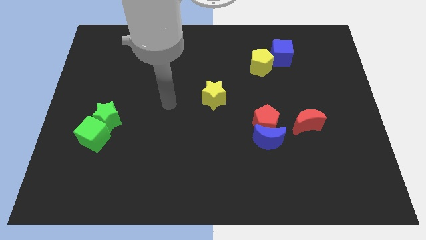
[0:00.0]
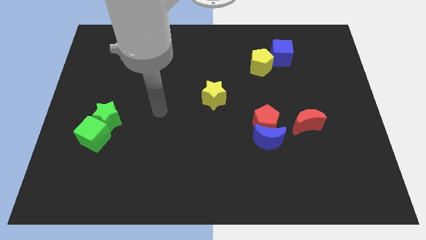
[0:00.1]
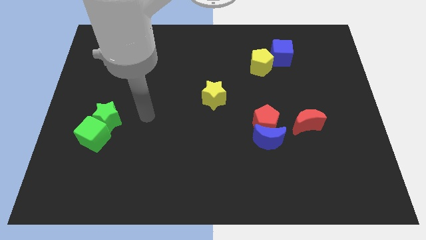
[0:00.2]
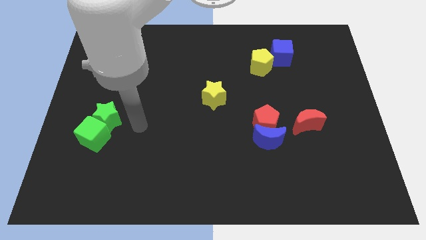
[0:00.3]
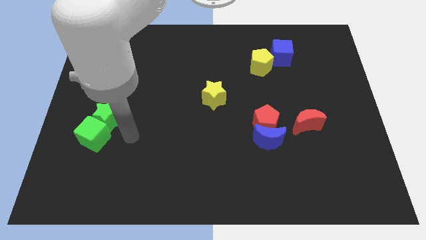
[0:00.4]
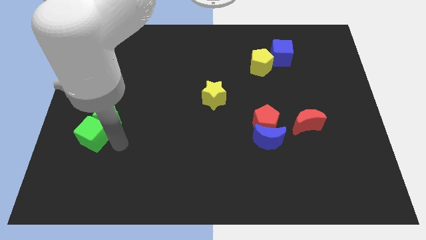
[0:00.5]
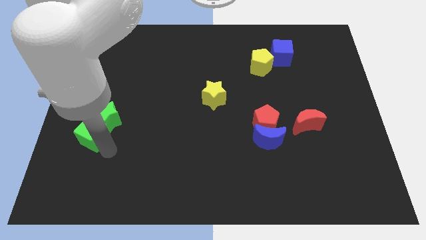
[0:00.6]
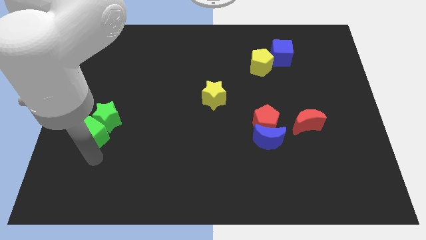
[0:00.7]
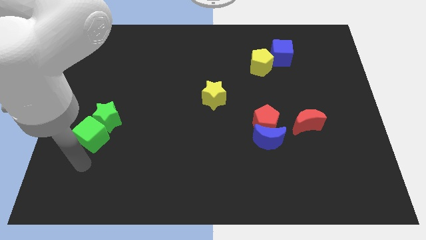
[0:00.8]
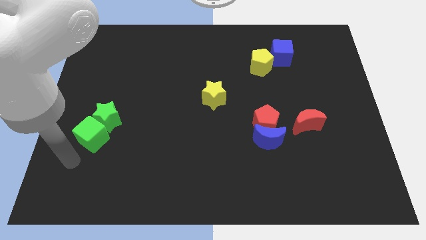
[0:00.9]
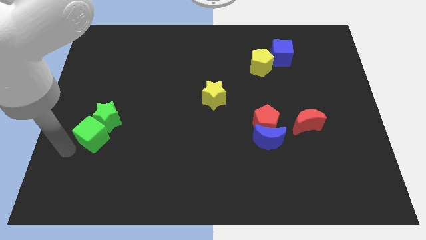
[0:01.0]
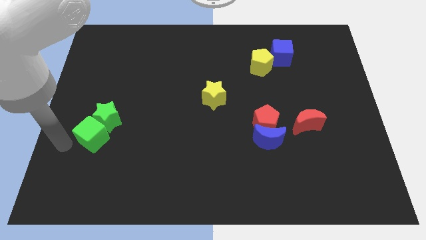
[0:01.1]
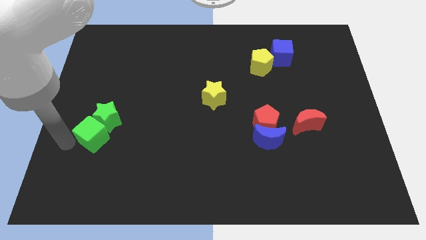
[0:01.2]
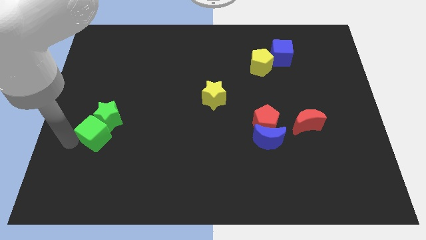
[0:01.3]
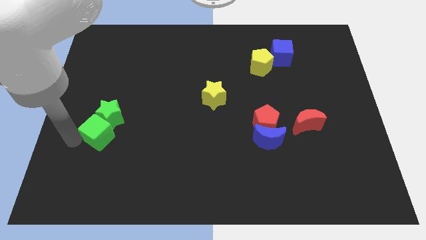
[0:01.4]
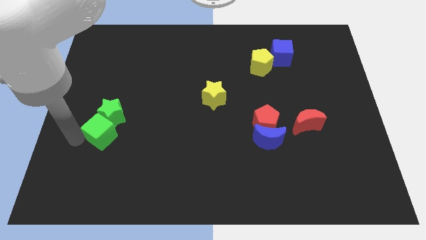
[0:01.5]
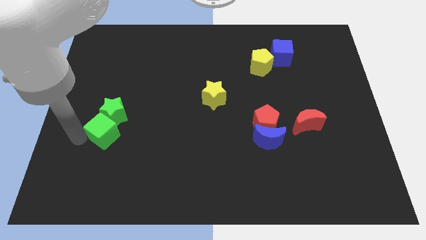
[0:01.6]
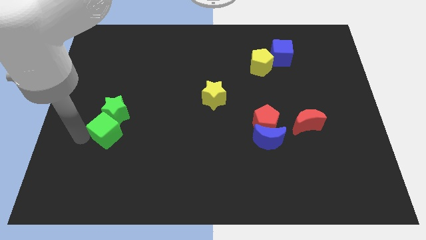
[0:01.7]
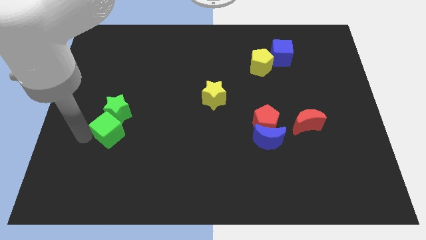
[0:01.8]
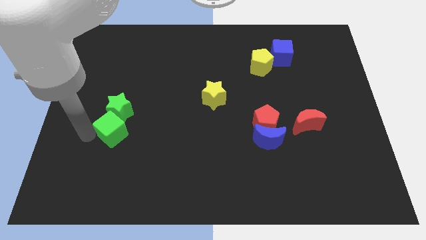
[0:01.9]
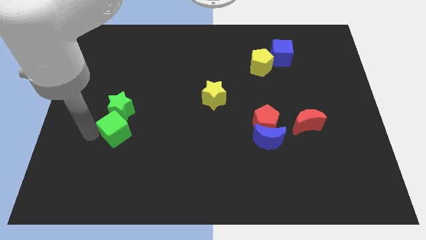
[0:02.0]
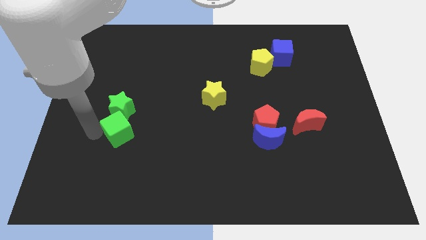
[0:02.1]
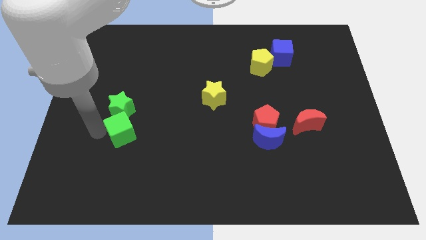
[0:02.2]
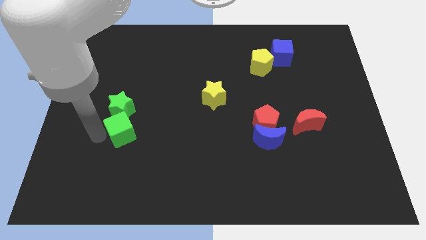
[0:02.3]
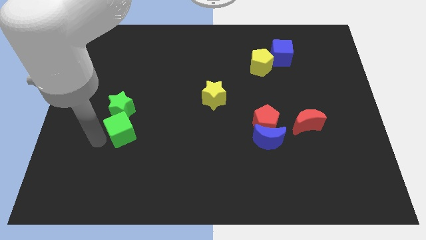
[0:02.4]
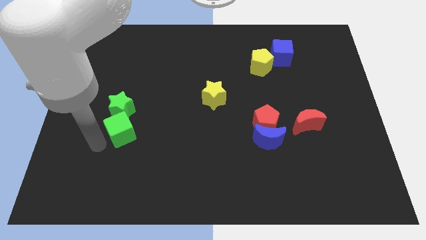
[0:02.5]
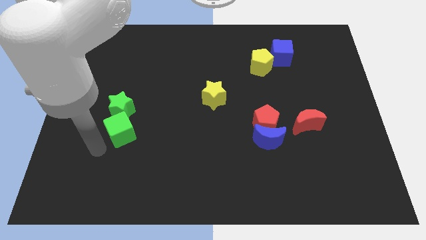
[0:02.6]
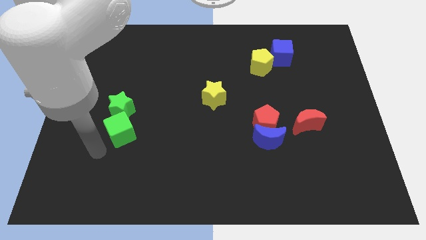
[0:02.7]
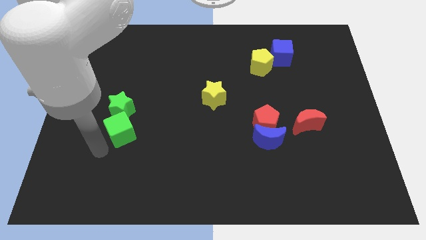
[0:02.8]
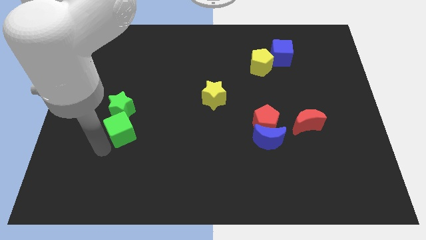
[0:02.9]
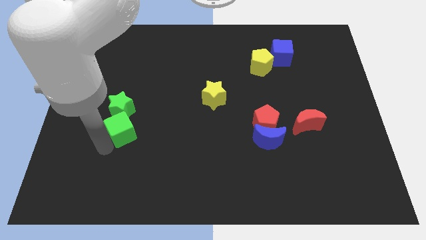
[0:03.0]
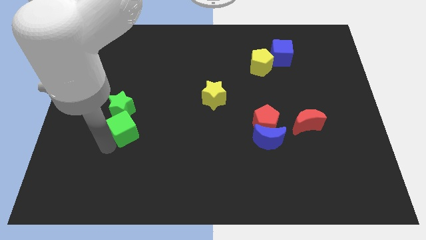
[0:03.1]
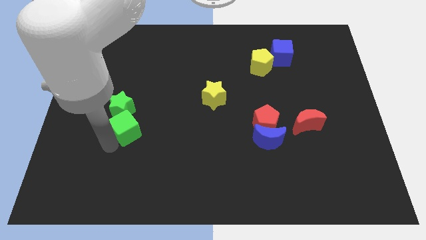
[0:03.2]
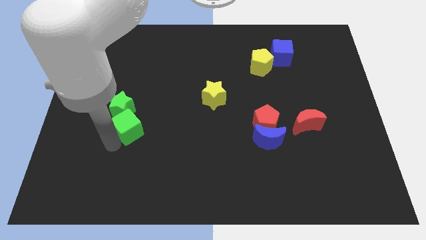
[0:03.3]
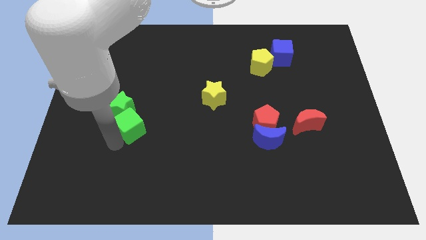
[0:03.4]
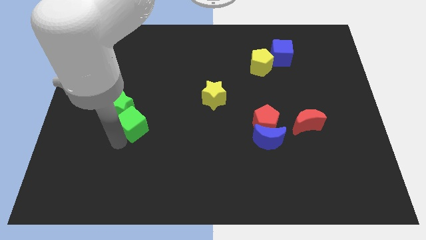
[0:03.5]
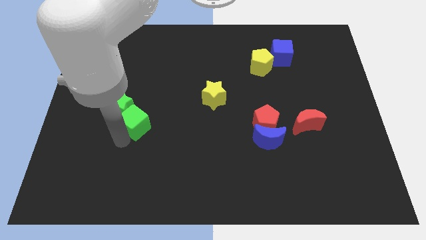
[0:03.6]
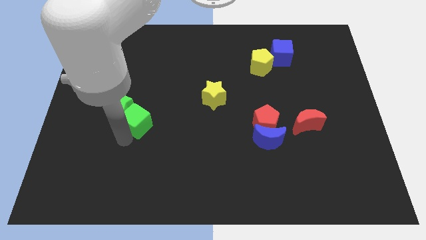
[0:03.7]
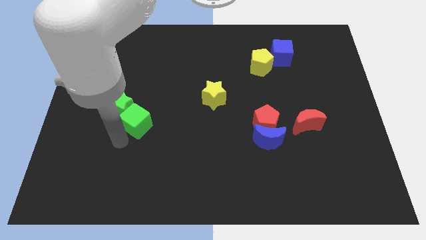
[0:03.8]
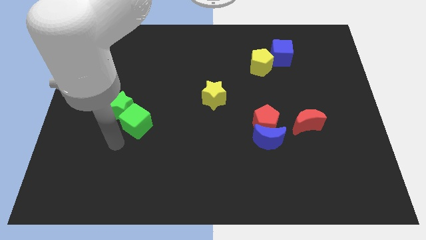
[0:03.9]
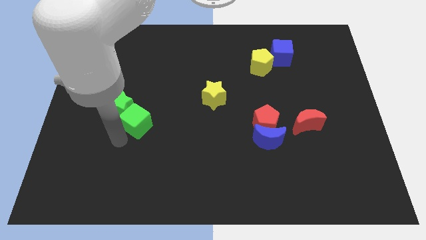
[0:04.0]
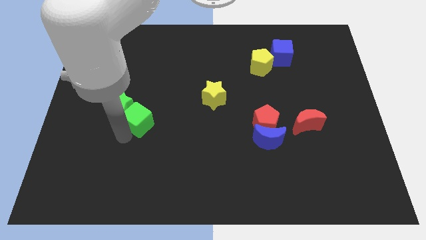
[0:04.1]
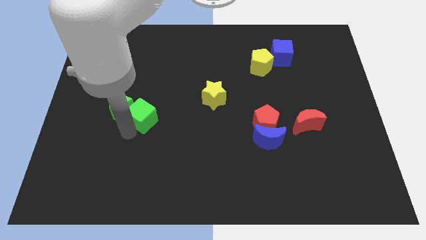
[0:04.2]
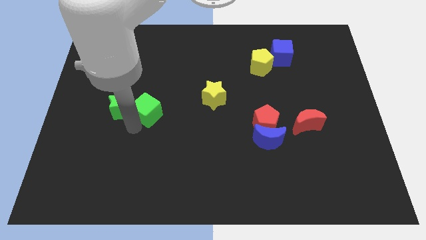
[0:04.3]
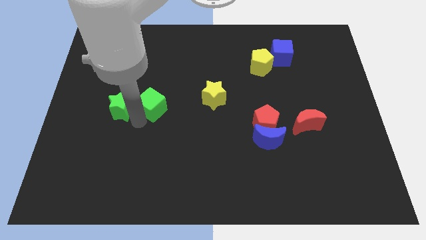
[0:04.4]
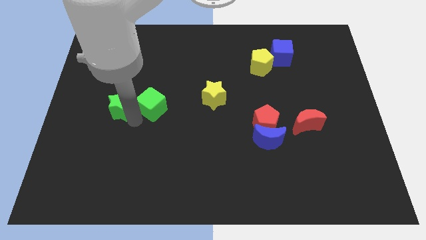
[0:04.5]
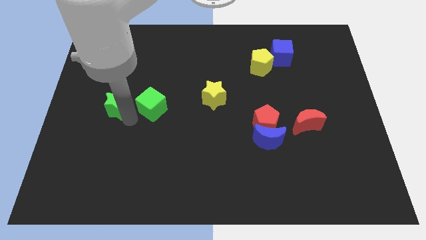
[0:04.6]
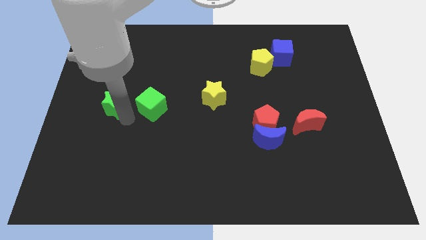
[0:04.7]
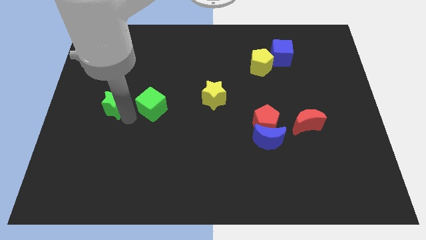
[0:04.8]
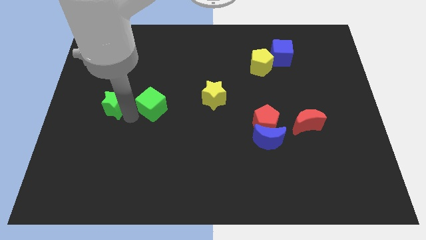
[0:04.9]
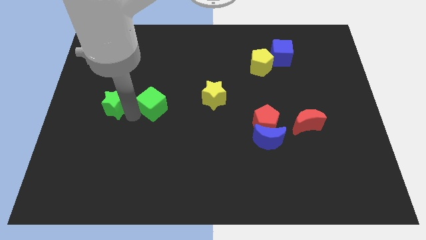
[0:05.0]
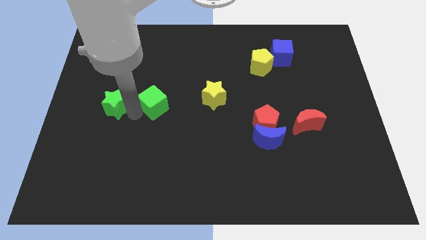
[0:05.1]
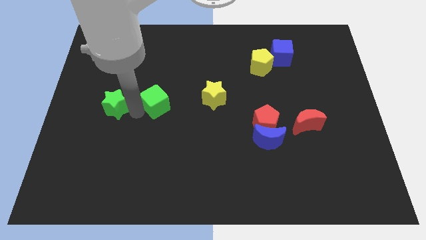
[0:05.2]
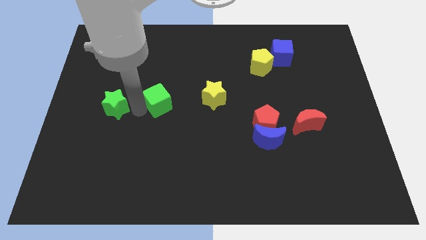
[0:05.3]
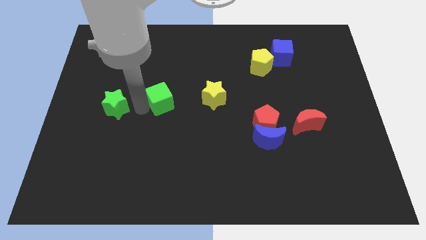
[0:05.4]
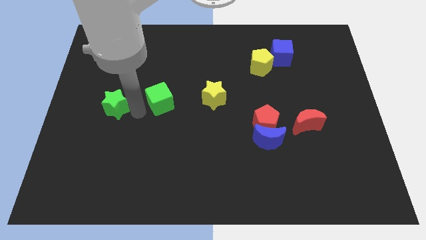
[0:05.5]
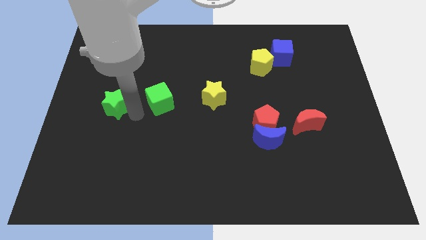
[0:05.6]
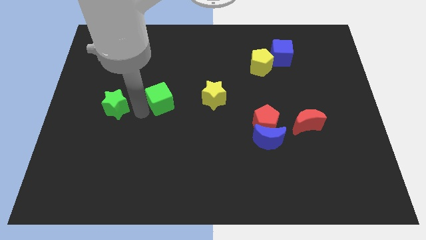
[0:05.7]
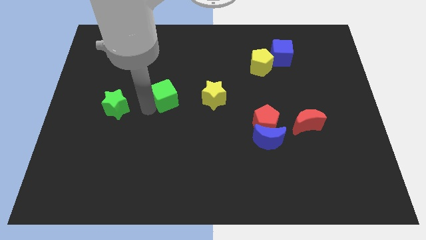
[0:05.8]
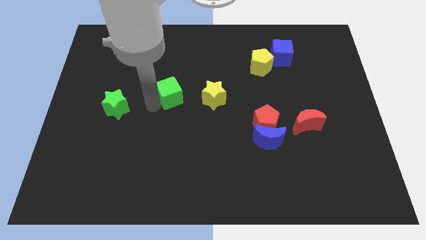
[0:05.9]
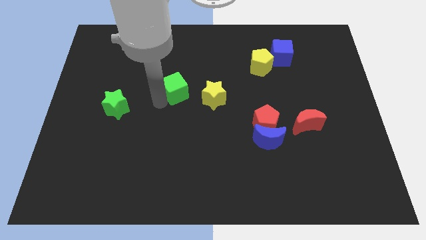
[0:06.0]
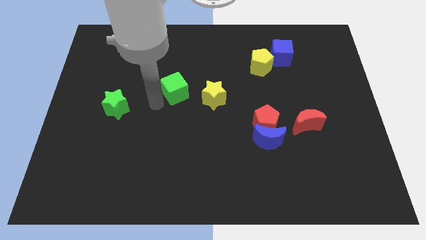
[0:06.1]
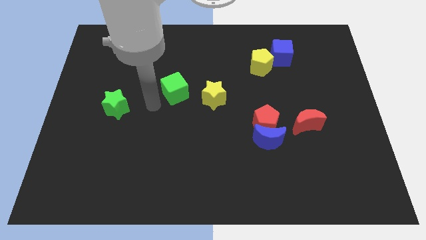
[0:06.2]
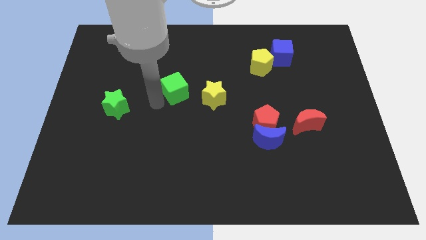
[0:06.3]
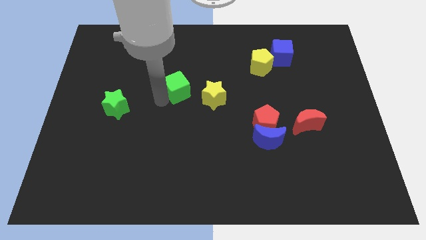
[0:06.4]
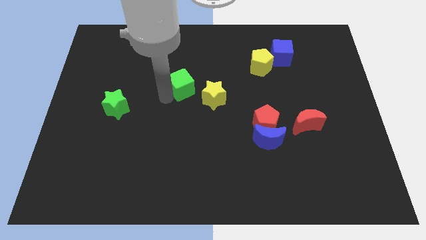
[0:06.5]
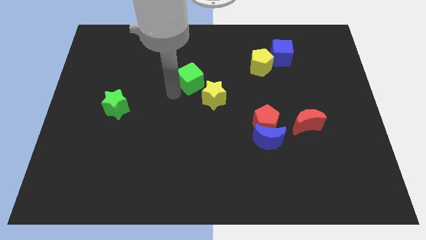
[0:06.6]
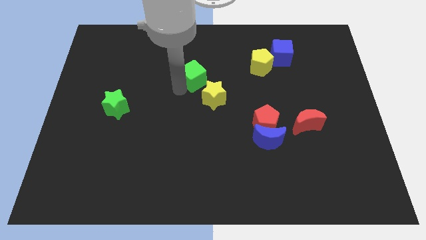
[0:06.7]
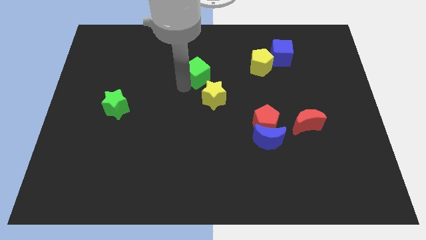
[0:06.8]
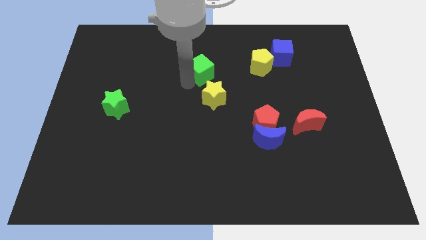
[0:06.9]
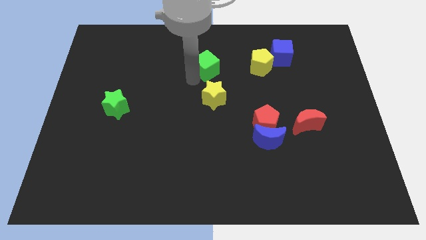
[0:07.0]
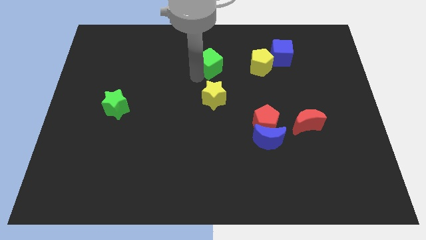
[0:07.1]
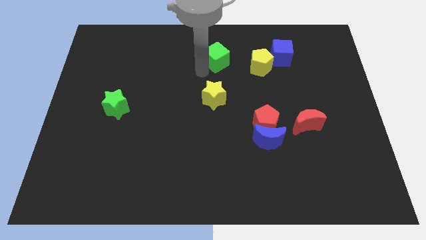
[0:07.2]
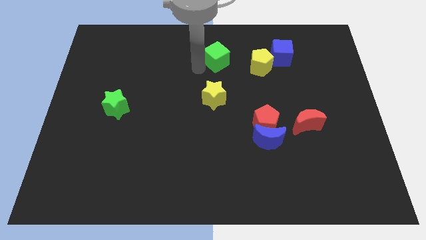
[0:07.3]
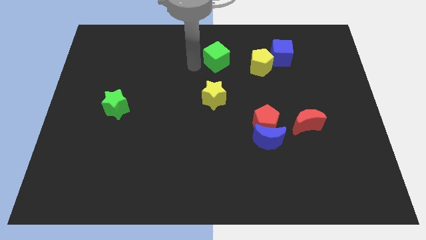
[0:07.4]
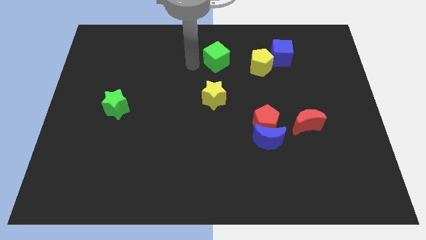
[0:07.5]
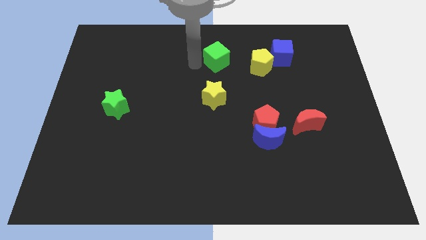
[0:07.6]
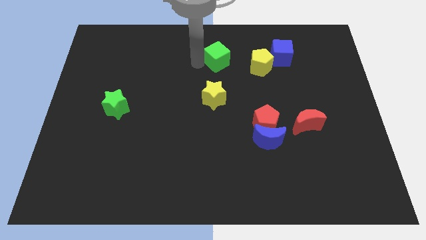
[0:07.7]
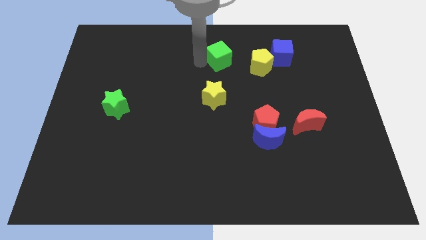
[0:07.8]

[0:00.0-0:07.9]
move the green cube to the left of the blue cube
